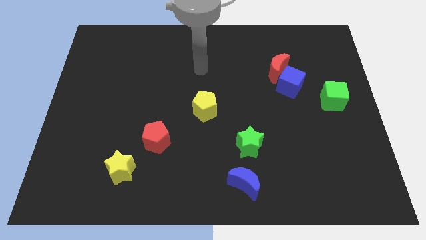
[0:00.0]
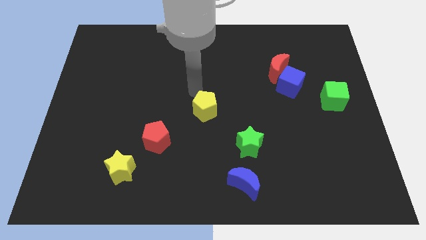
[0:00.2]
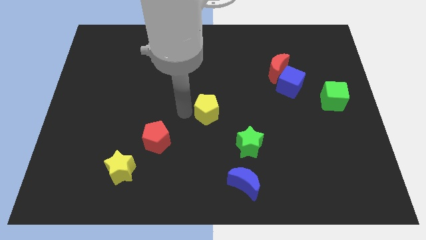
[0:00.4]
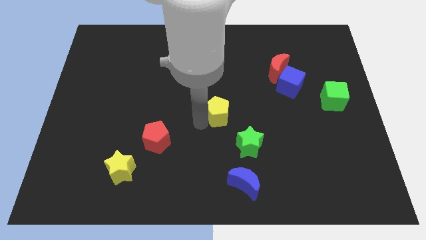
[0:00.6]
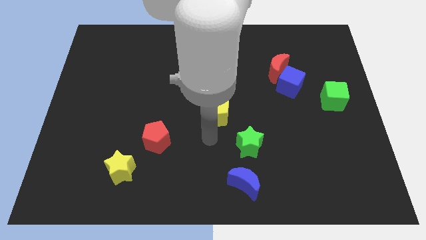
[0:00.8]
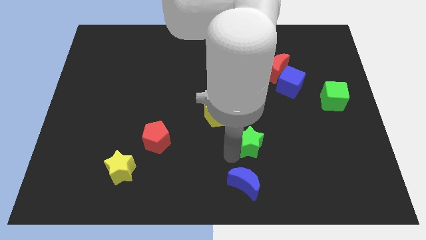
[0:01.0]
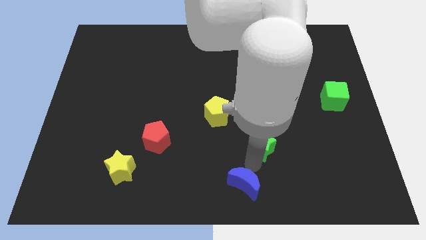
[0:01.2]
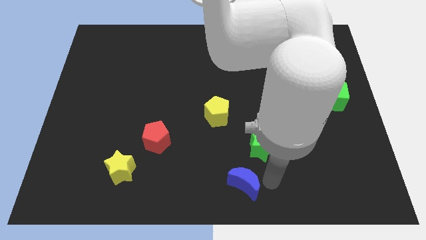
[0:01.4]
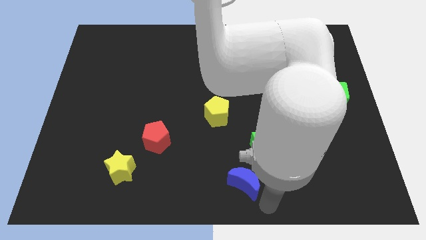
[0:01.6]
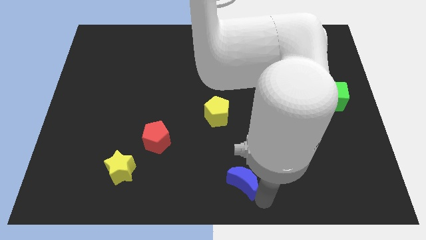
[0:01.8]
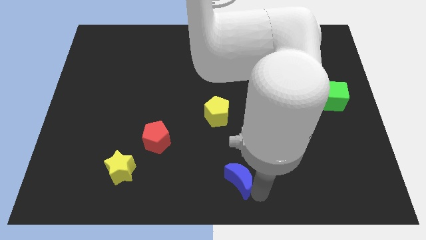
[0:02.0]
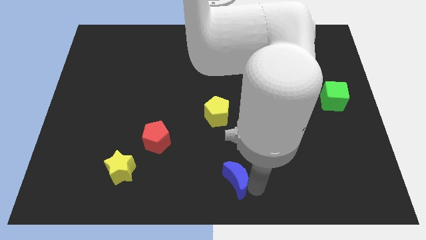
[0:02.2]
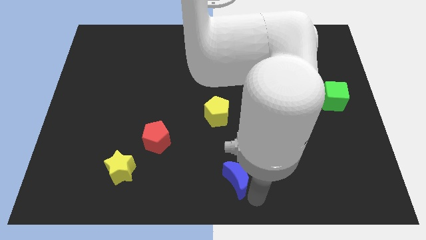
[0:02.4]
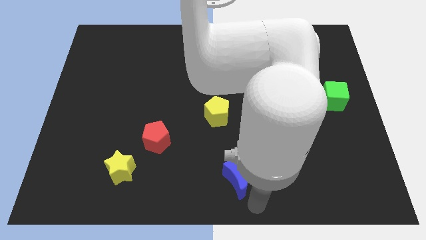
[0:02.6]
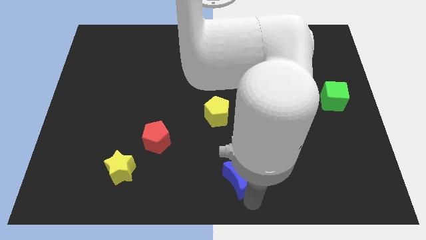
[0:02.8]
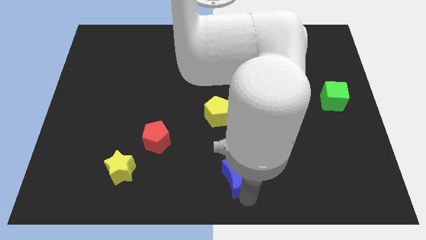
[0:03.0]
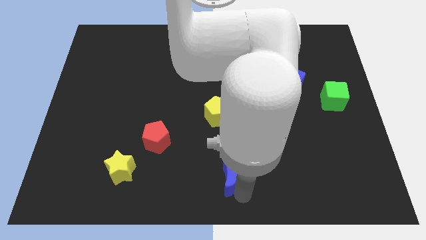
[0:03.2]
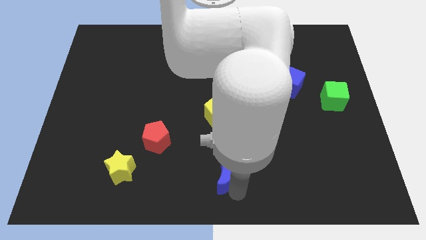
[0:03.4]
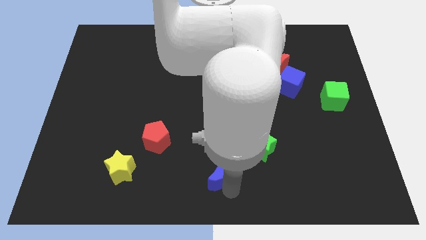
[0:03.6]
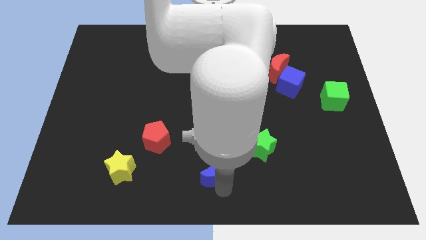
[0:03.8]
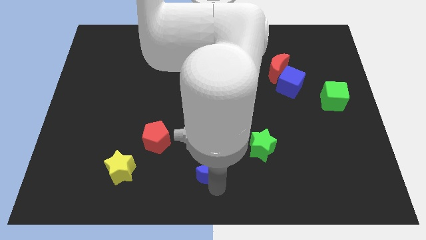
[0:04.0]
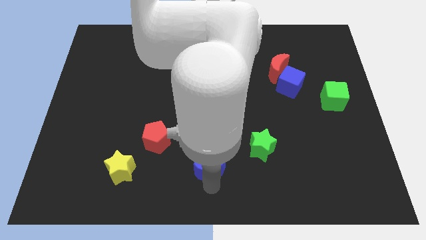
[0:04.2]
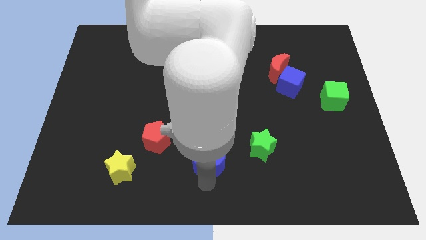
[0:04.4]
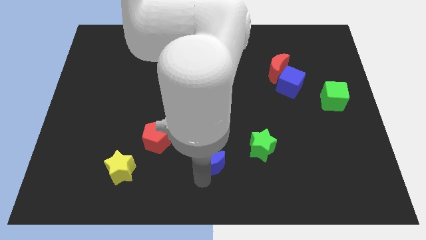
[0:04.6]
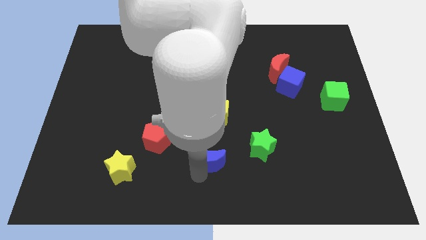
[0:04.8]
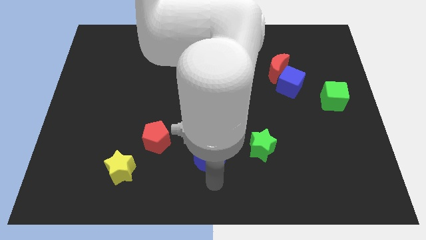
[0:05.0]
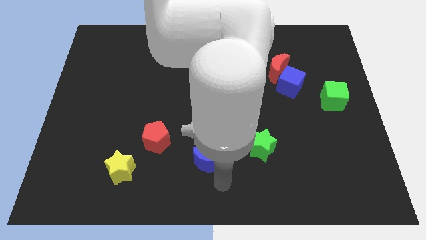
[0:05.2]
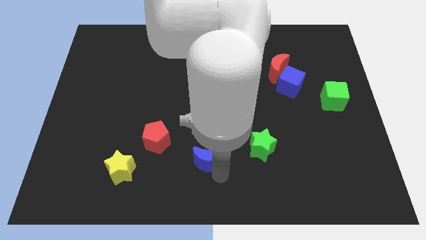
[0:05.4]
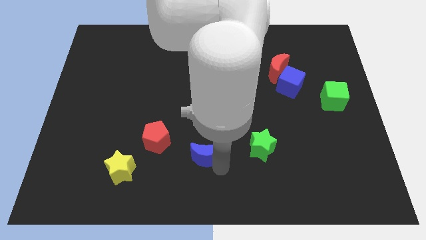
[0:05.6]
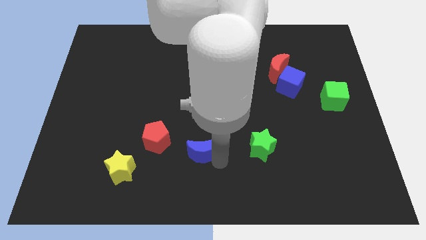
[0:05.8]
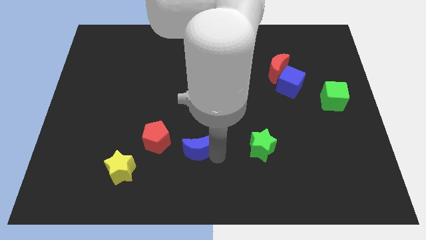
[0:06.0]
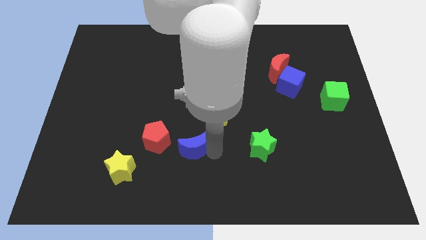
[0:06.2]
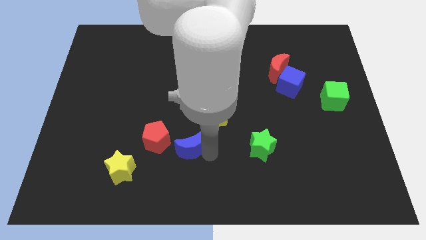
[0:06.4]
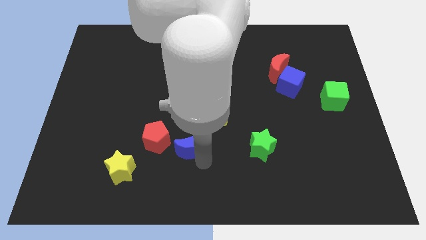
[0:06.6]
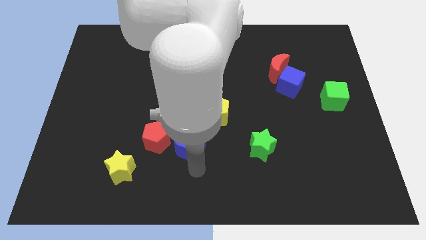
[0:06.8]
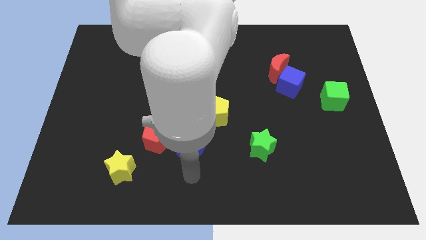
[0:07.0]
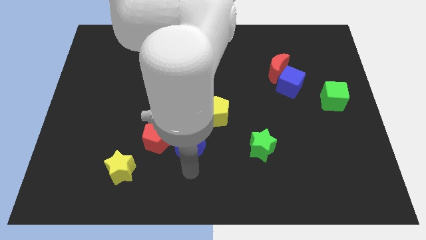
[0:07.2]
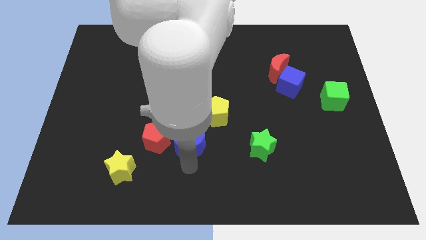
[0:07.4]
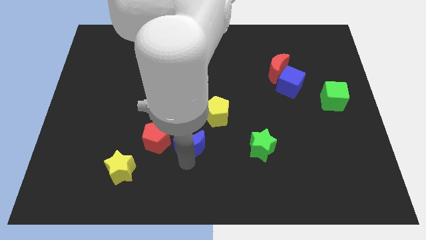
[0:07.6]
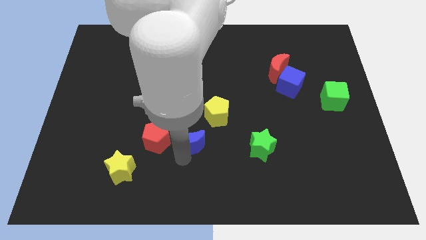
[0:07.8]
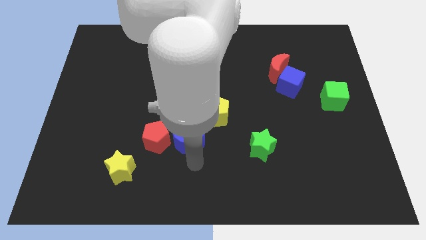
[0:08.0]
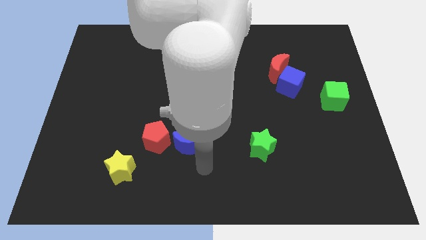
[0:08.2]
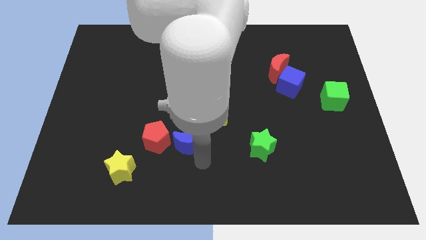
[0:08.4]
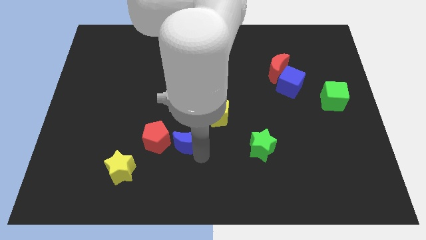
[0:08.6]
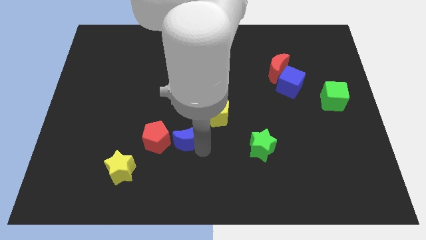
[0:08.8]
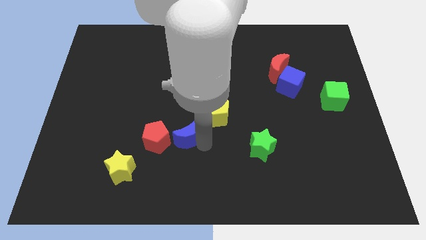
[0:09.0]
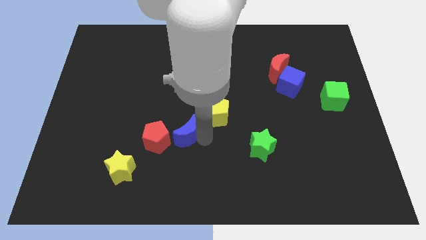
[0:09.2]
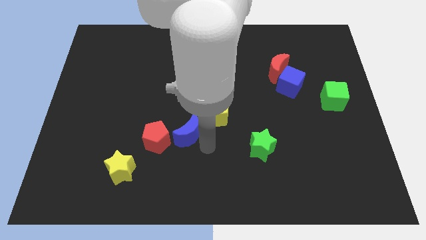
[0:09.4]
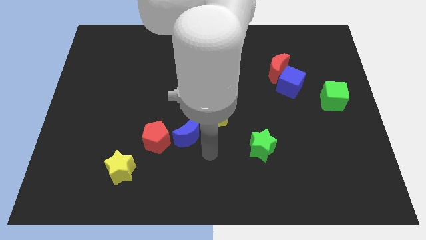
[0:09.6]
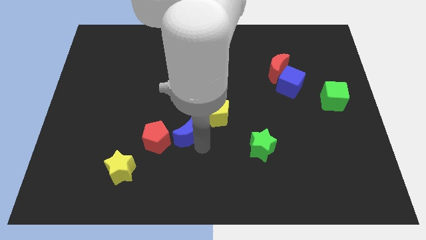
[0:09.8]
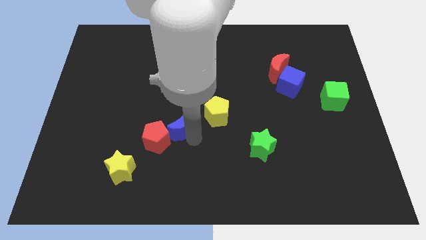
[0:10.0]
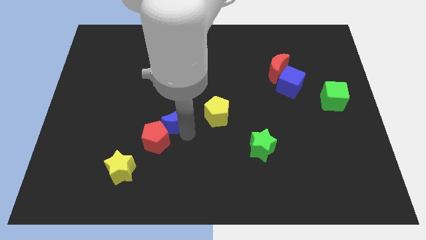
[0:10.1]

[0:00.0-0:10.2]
slide the blue moon upwards and then left

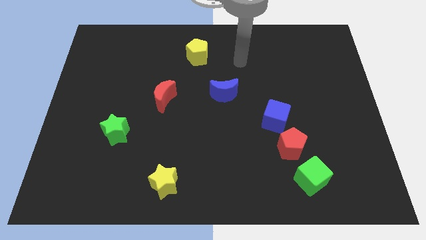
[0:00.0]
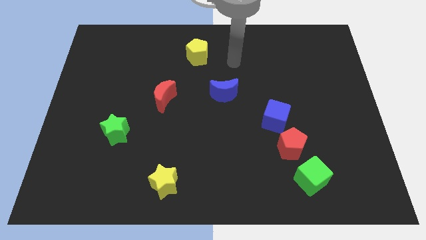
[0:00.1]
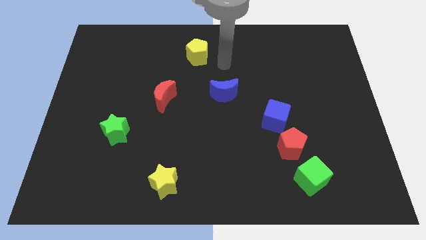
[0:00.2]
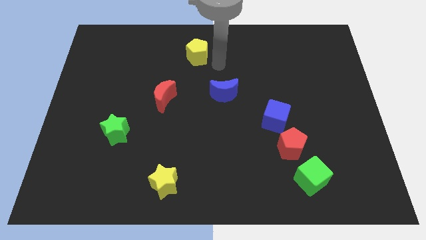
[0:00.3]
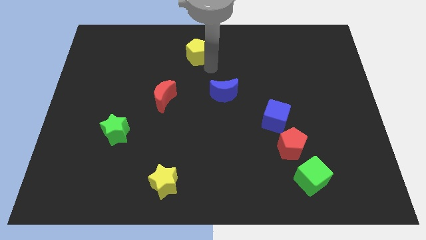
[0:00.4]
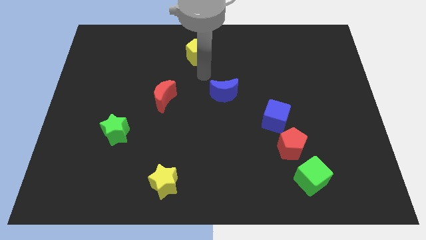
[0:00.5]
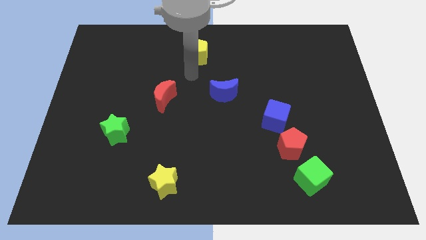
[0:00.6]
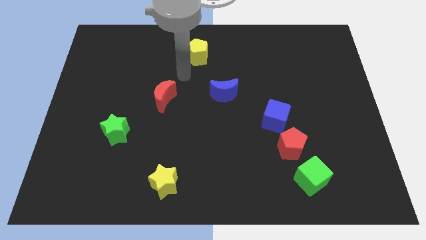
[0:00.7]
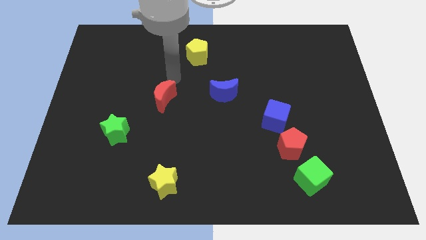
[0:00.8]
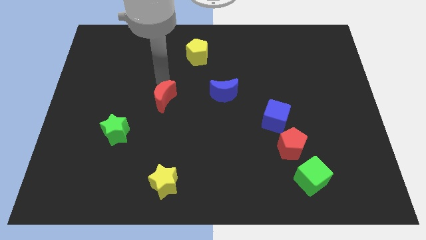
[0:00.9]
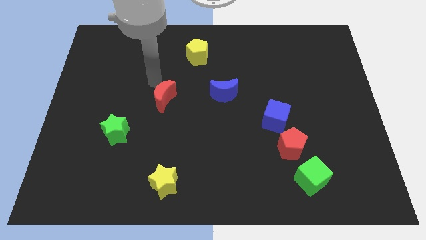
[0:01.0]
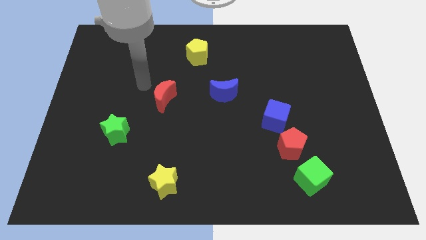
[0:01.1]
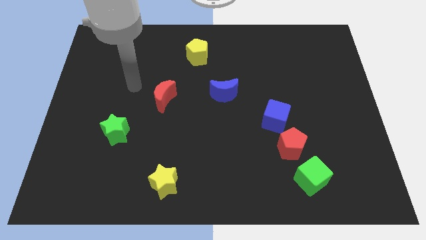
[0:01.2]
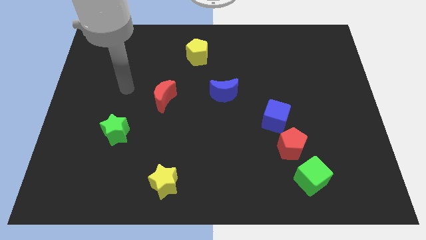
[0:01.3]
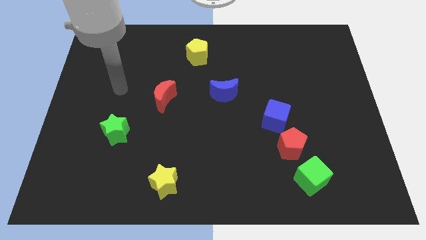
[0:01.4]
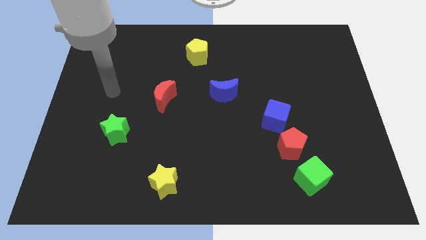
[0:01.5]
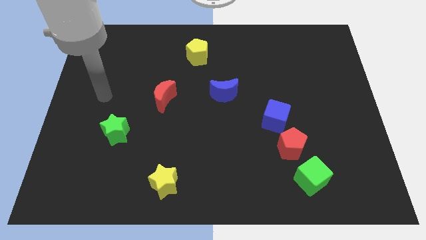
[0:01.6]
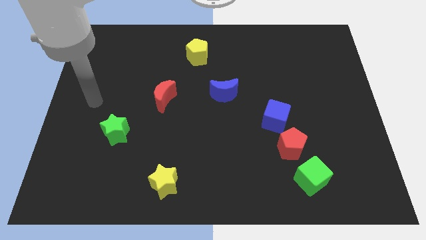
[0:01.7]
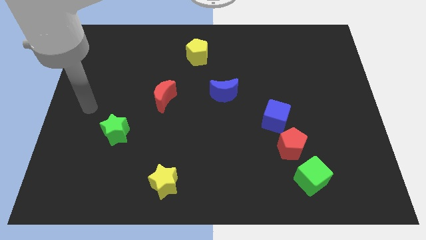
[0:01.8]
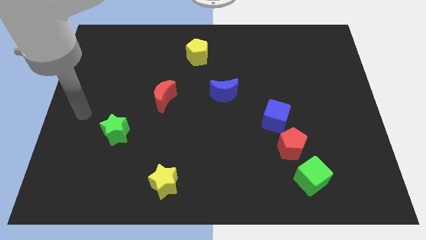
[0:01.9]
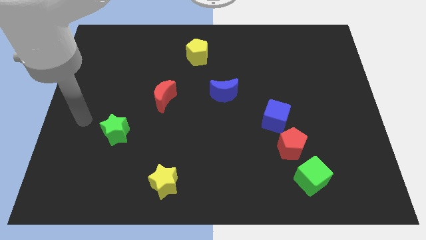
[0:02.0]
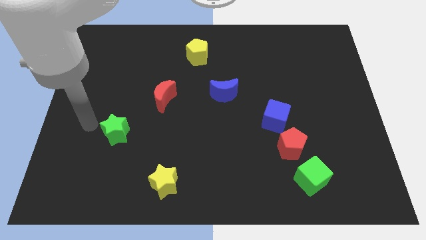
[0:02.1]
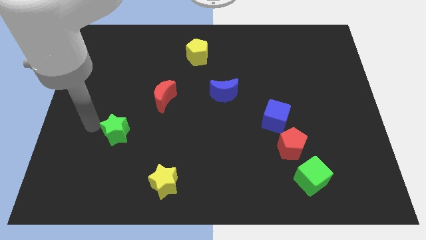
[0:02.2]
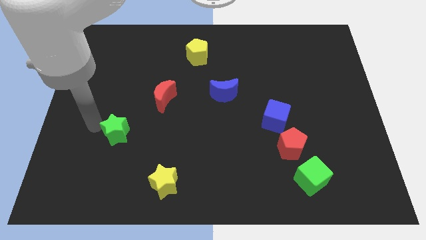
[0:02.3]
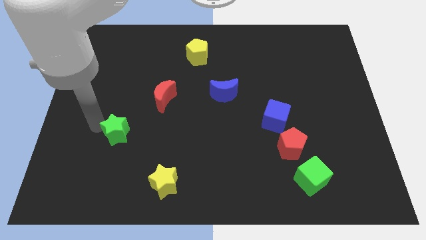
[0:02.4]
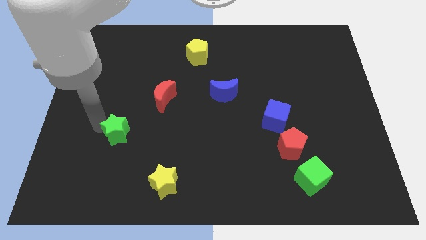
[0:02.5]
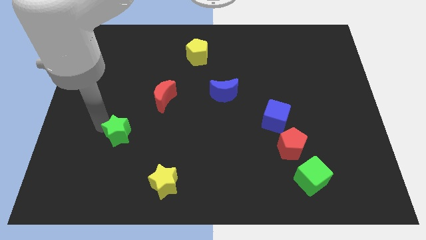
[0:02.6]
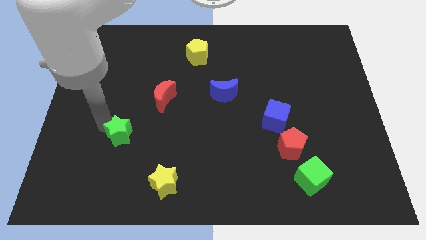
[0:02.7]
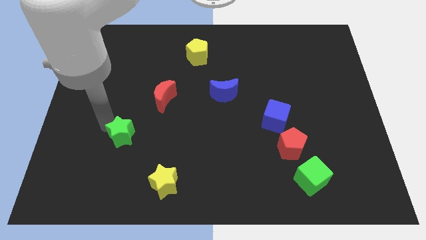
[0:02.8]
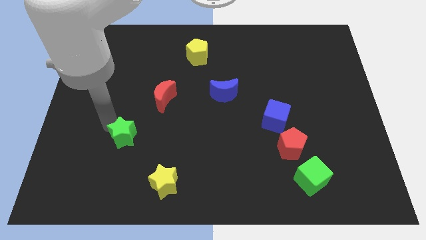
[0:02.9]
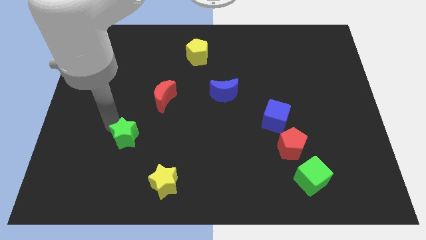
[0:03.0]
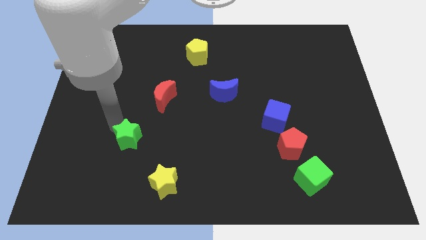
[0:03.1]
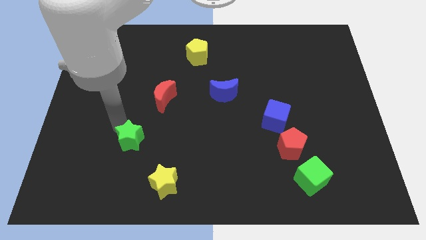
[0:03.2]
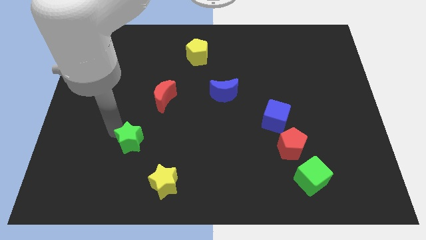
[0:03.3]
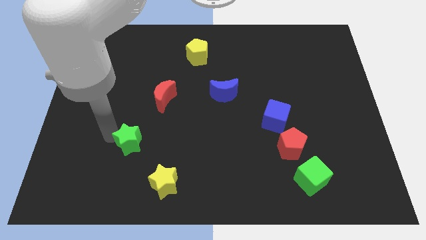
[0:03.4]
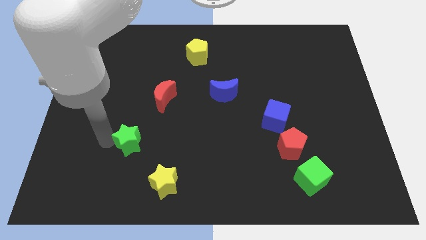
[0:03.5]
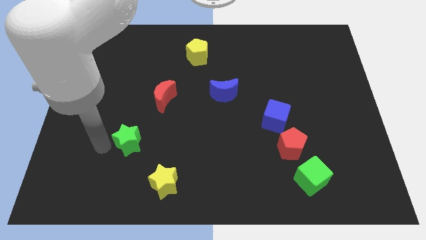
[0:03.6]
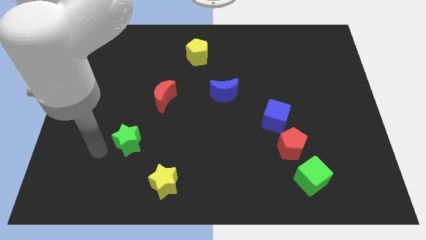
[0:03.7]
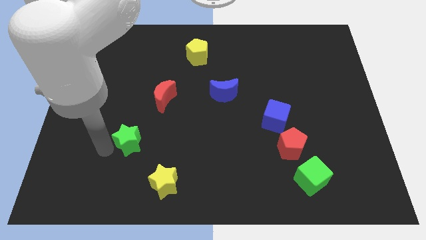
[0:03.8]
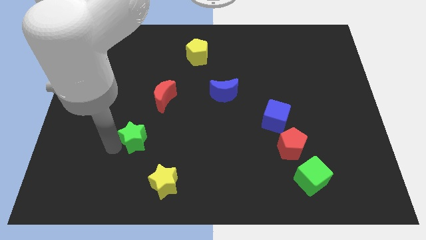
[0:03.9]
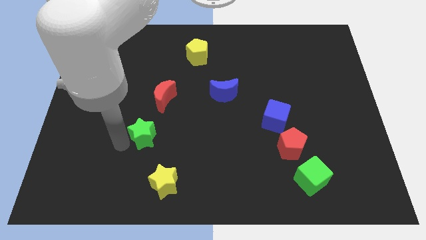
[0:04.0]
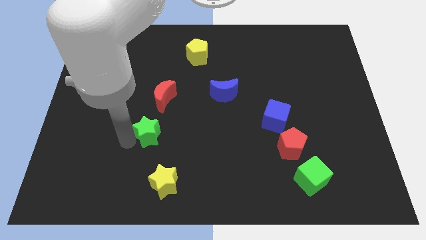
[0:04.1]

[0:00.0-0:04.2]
slightly move the green star right
